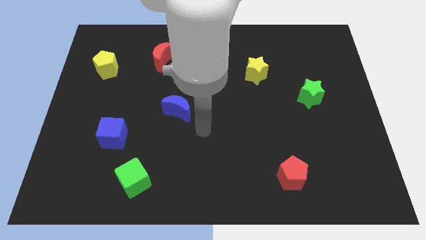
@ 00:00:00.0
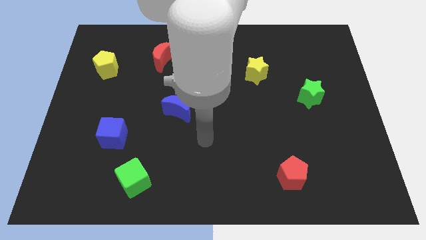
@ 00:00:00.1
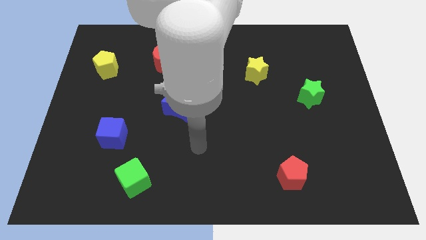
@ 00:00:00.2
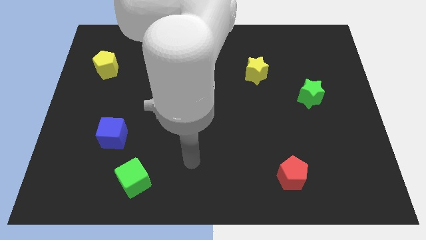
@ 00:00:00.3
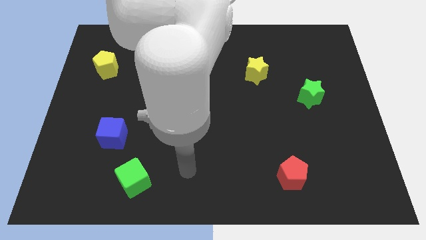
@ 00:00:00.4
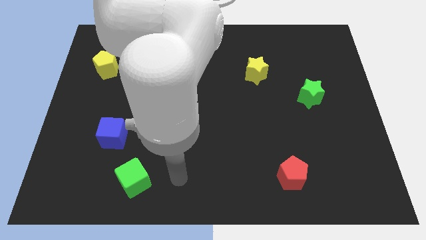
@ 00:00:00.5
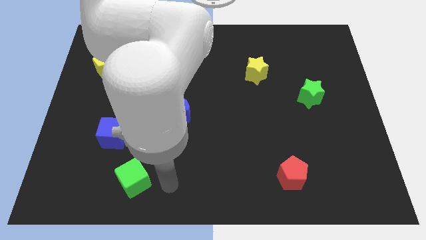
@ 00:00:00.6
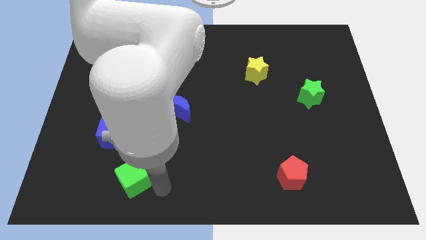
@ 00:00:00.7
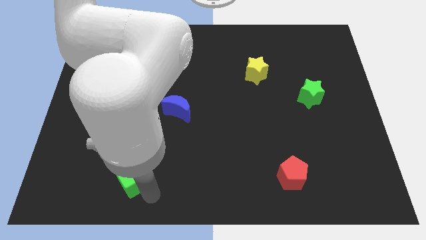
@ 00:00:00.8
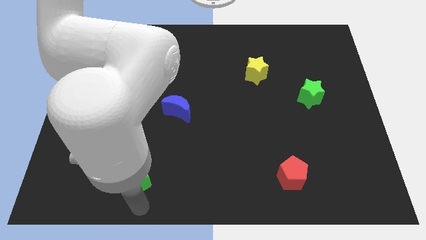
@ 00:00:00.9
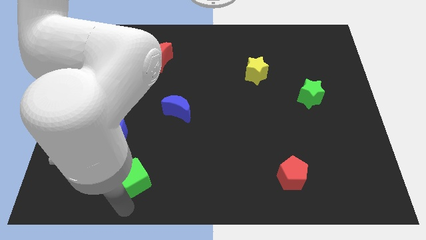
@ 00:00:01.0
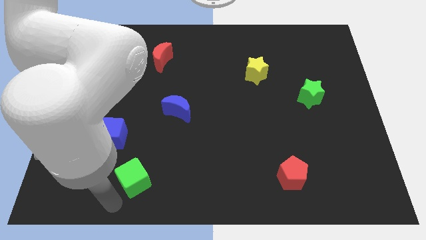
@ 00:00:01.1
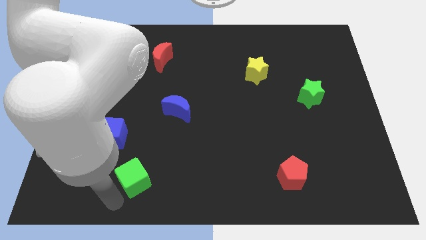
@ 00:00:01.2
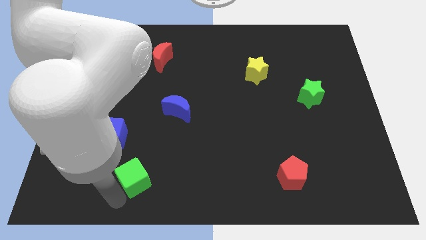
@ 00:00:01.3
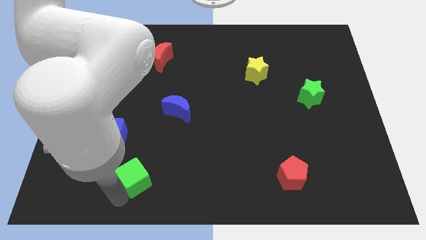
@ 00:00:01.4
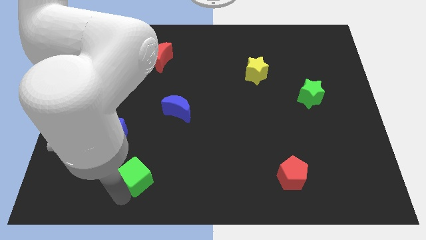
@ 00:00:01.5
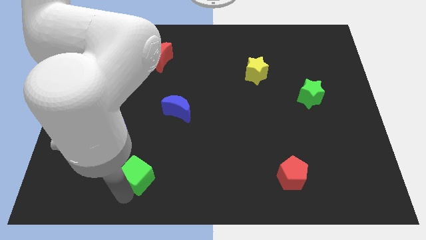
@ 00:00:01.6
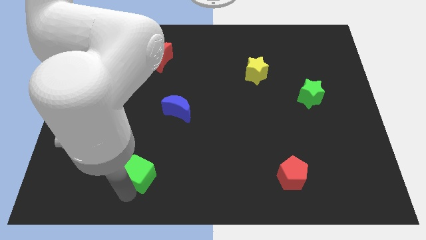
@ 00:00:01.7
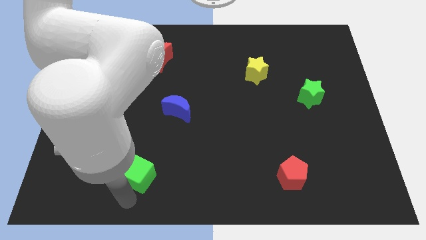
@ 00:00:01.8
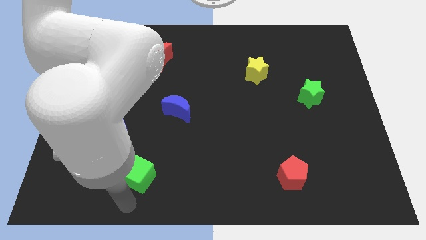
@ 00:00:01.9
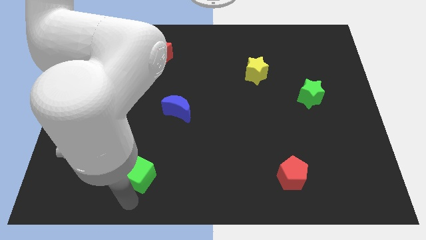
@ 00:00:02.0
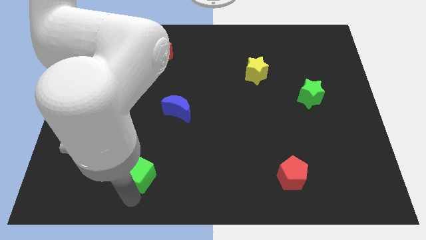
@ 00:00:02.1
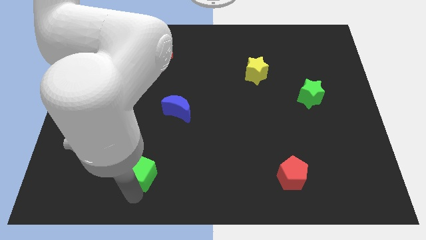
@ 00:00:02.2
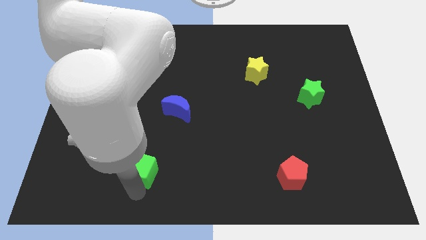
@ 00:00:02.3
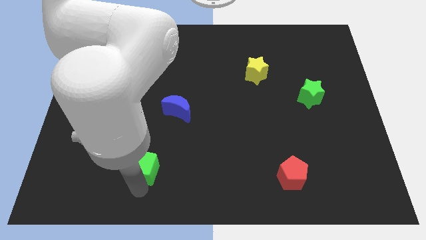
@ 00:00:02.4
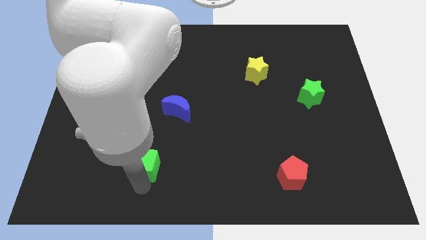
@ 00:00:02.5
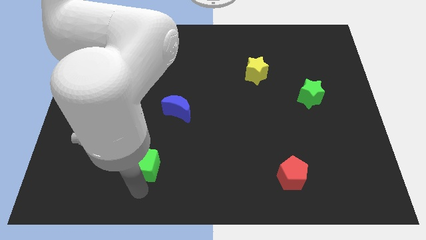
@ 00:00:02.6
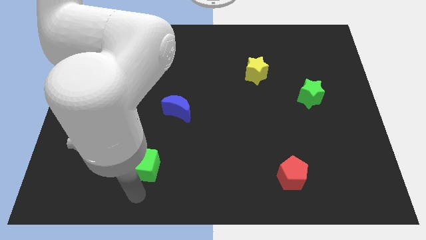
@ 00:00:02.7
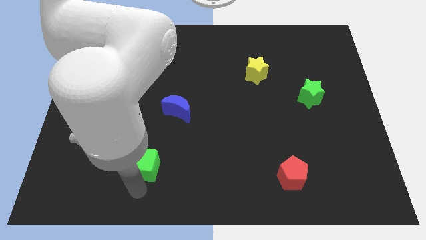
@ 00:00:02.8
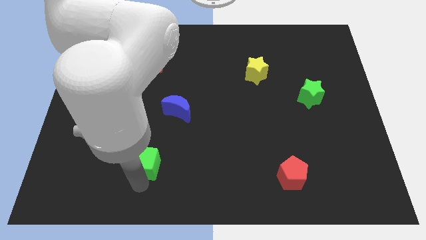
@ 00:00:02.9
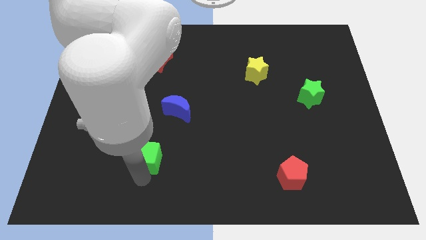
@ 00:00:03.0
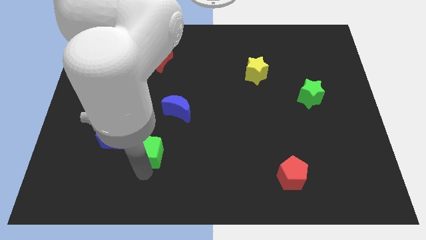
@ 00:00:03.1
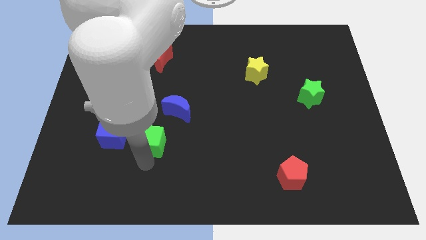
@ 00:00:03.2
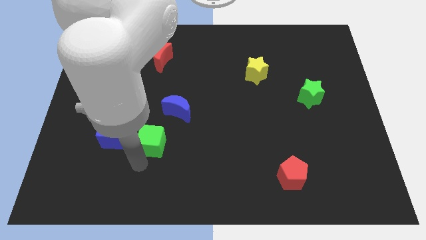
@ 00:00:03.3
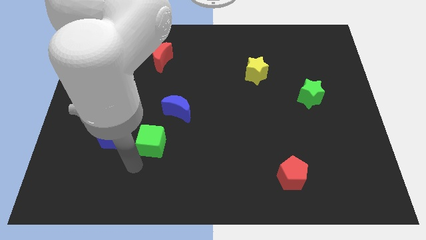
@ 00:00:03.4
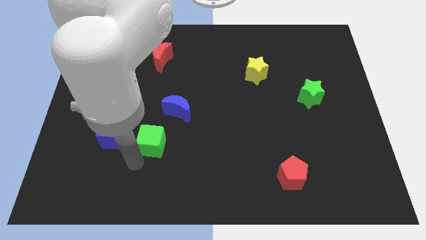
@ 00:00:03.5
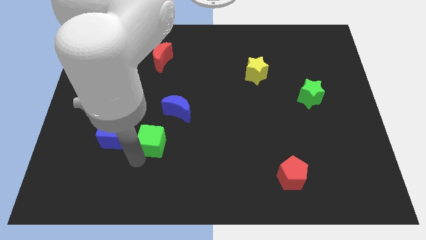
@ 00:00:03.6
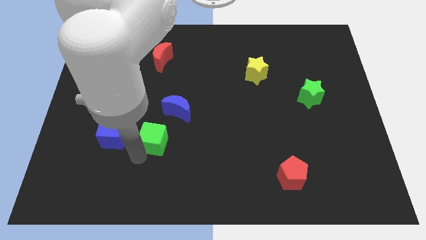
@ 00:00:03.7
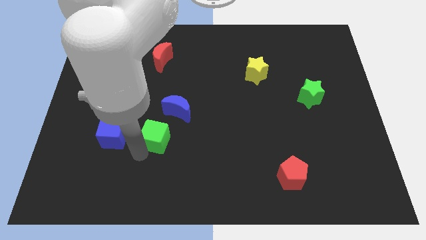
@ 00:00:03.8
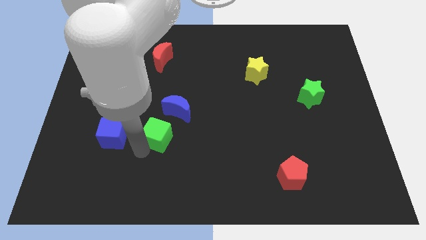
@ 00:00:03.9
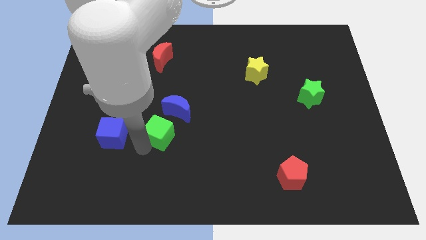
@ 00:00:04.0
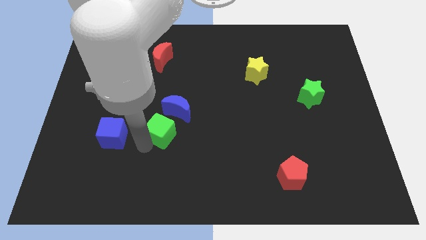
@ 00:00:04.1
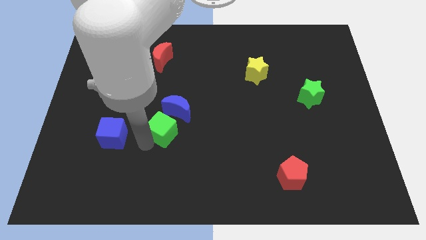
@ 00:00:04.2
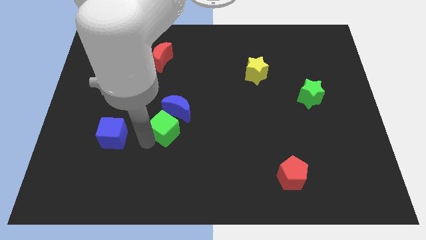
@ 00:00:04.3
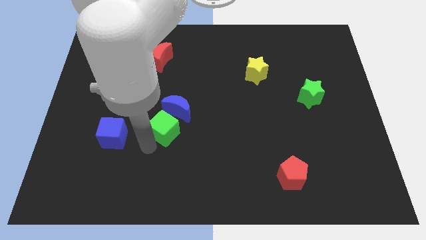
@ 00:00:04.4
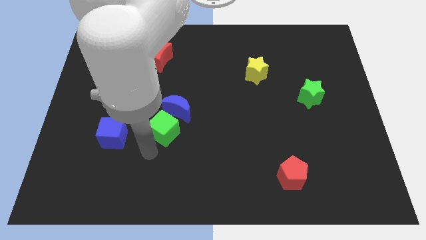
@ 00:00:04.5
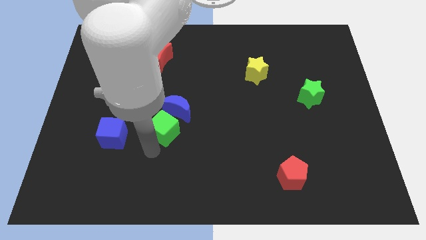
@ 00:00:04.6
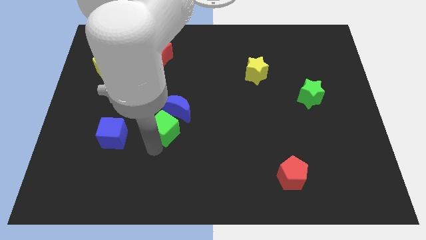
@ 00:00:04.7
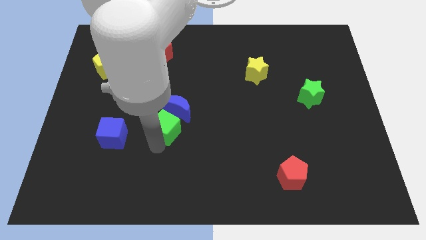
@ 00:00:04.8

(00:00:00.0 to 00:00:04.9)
push the green cube towards the blue moon

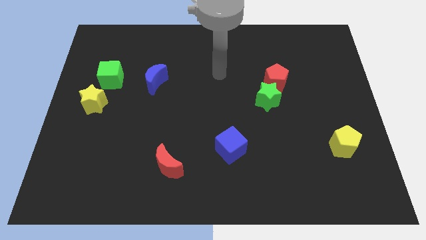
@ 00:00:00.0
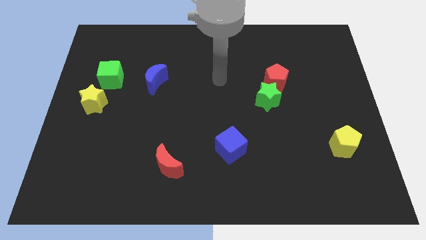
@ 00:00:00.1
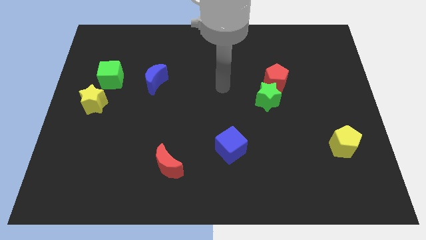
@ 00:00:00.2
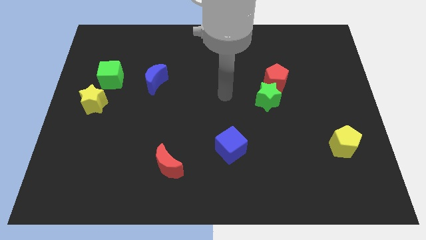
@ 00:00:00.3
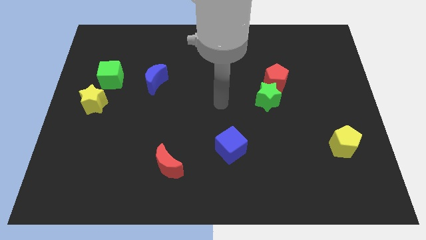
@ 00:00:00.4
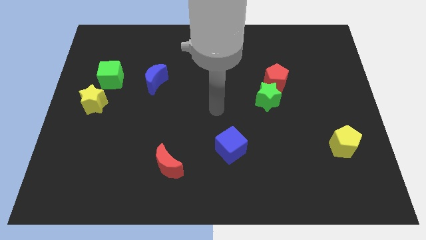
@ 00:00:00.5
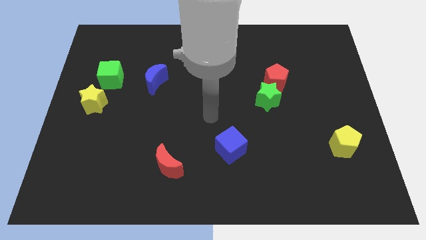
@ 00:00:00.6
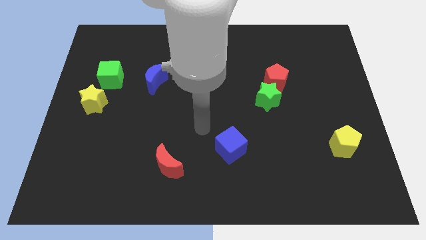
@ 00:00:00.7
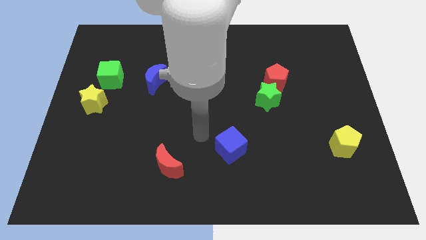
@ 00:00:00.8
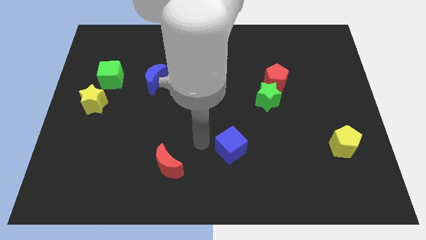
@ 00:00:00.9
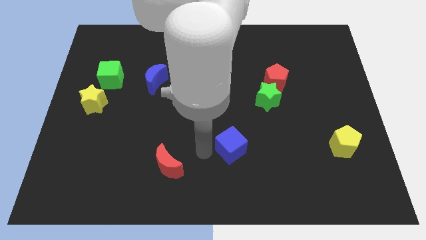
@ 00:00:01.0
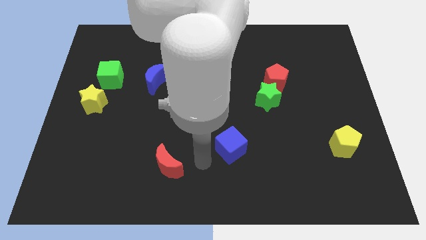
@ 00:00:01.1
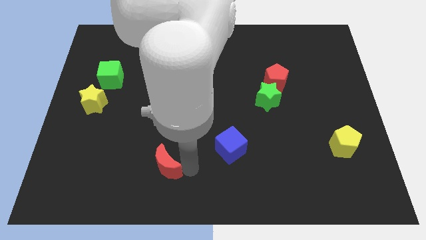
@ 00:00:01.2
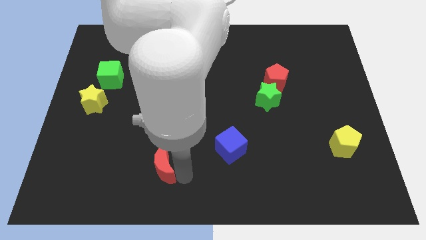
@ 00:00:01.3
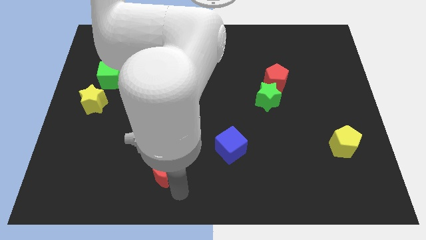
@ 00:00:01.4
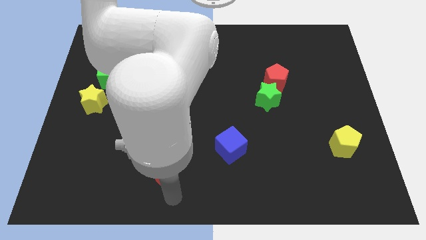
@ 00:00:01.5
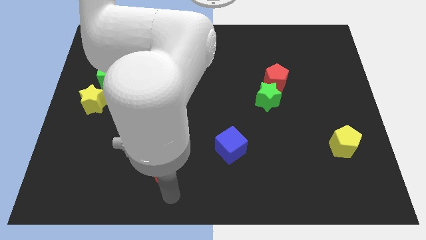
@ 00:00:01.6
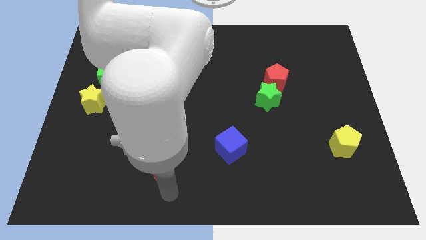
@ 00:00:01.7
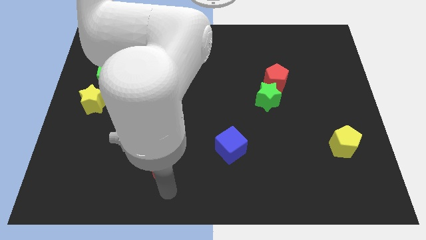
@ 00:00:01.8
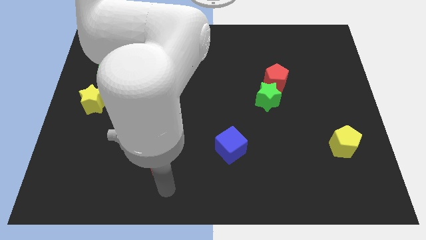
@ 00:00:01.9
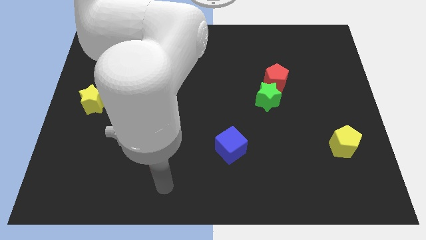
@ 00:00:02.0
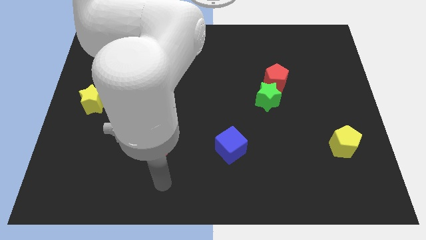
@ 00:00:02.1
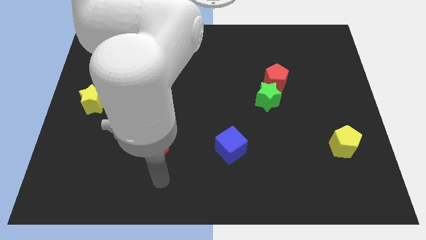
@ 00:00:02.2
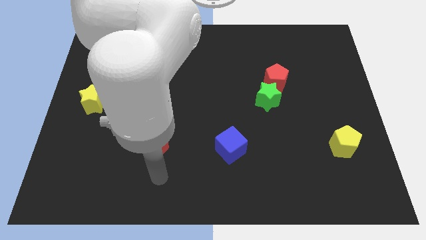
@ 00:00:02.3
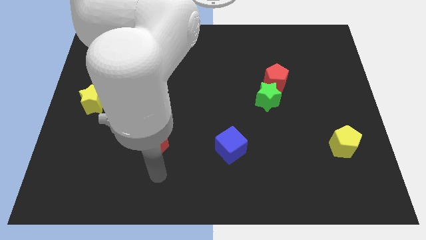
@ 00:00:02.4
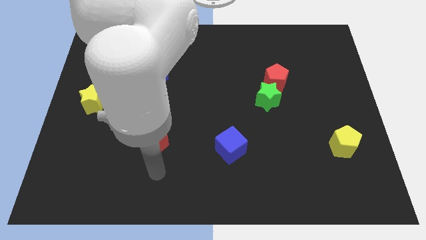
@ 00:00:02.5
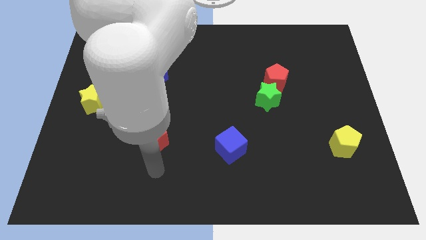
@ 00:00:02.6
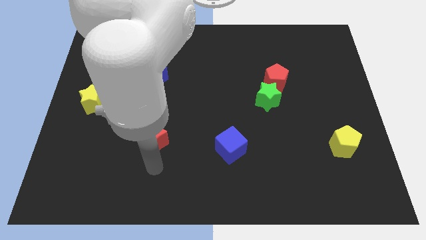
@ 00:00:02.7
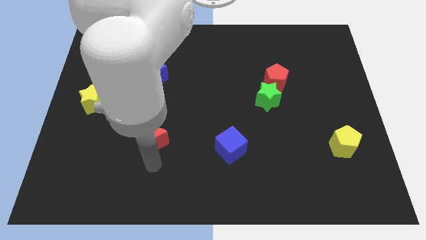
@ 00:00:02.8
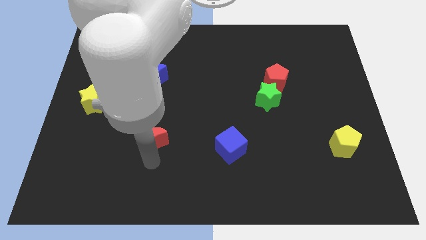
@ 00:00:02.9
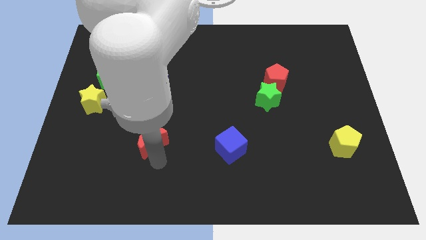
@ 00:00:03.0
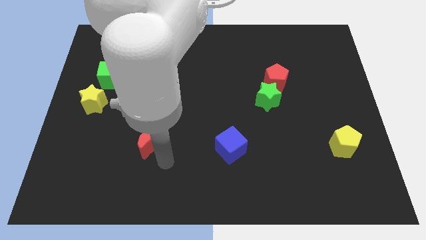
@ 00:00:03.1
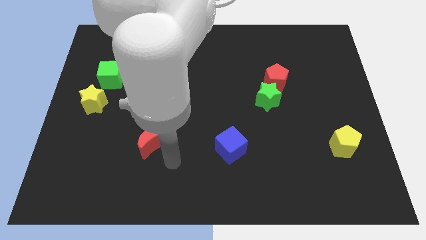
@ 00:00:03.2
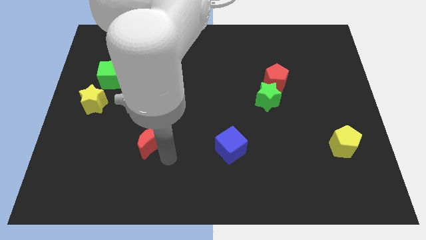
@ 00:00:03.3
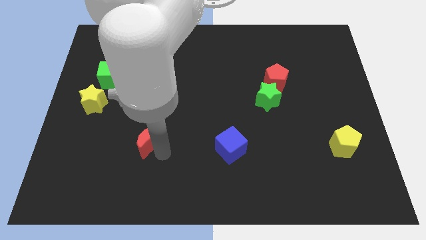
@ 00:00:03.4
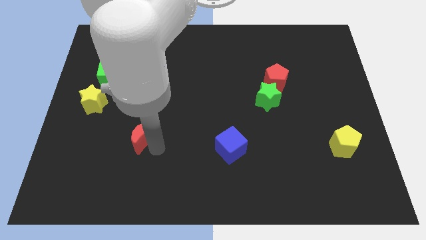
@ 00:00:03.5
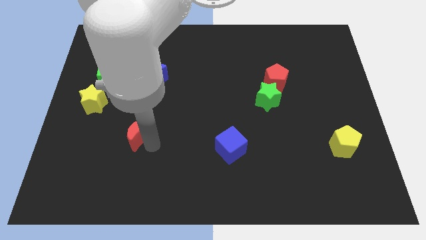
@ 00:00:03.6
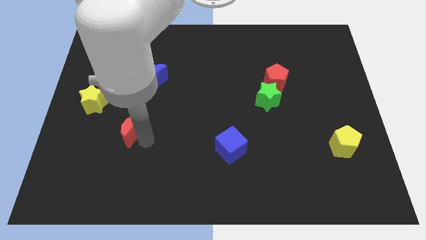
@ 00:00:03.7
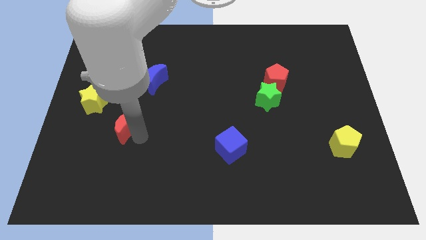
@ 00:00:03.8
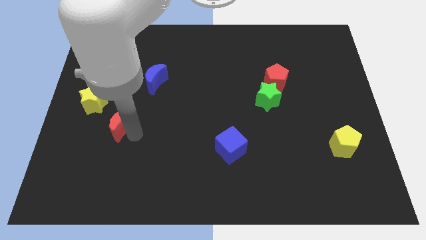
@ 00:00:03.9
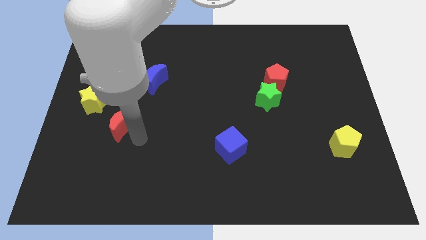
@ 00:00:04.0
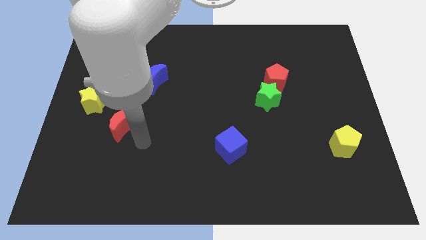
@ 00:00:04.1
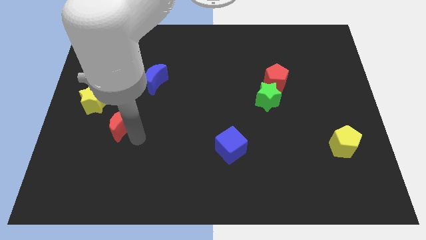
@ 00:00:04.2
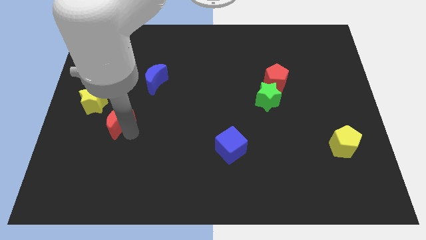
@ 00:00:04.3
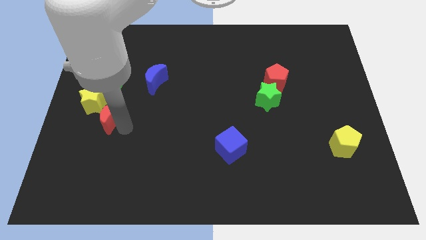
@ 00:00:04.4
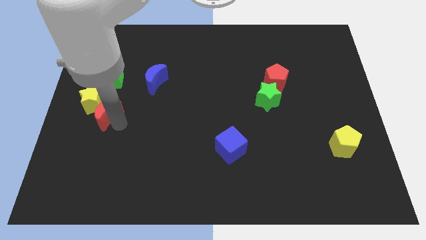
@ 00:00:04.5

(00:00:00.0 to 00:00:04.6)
push the red moon next to the yellow star
